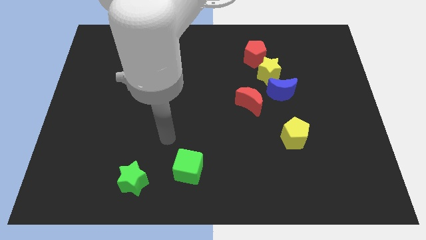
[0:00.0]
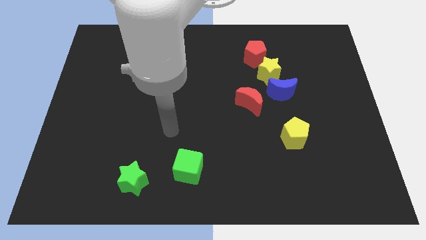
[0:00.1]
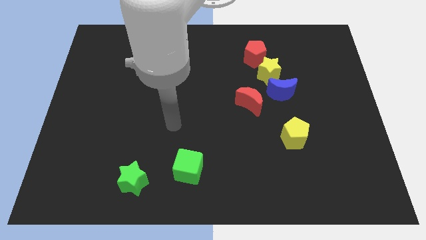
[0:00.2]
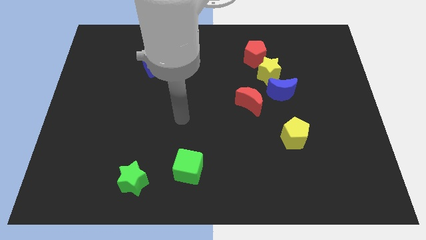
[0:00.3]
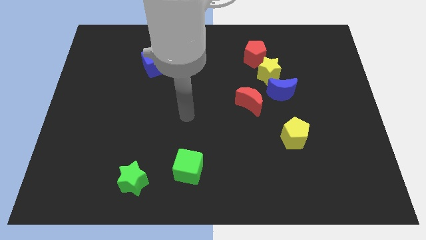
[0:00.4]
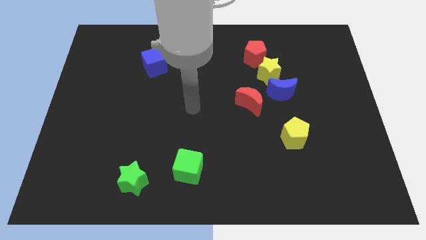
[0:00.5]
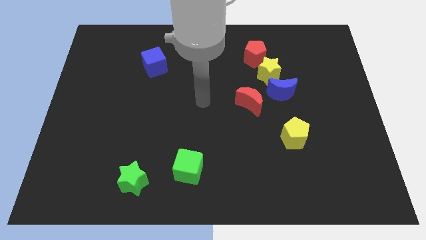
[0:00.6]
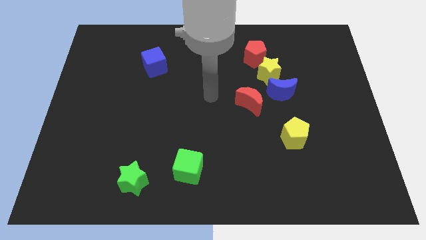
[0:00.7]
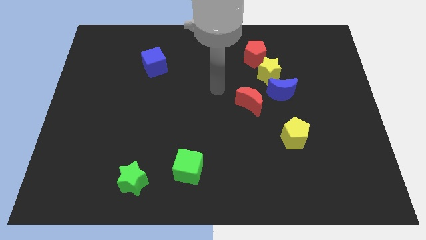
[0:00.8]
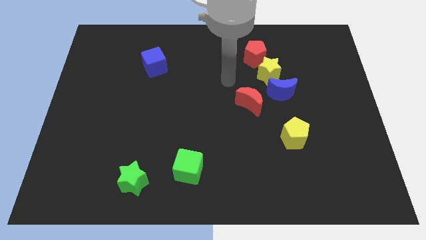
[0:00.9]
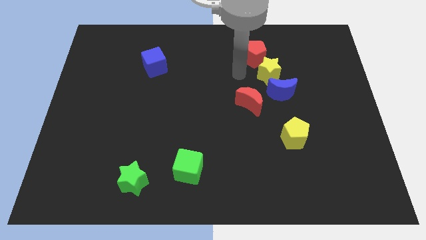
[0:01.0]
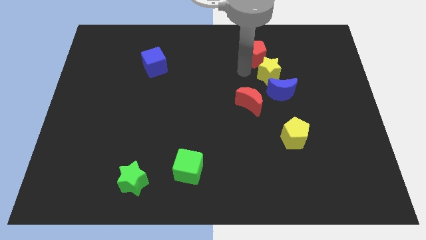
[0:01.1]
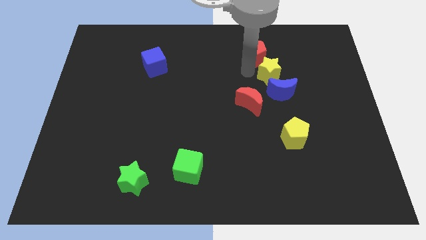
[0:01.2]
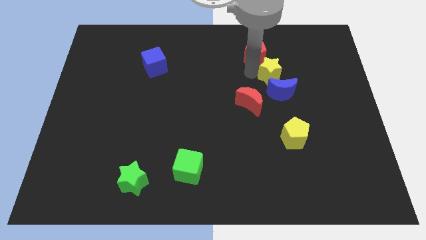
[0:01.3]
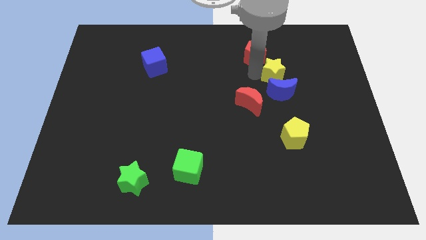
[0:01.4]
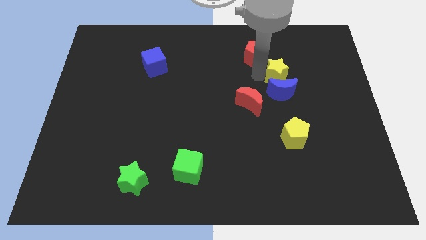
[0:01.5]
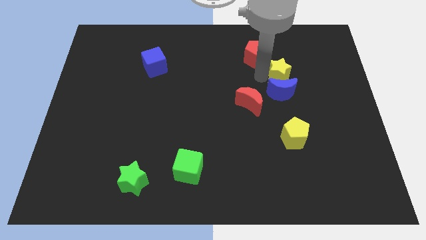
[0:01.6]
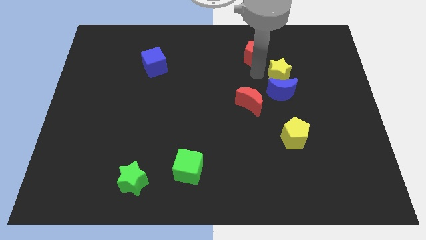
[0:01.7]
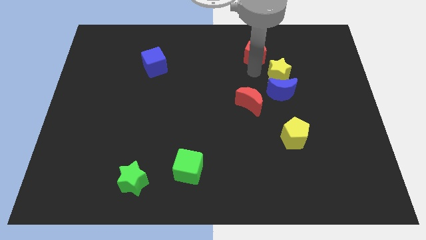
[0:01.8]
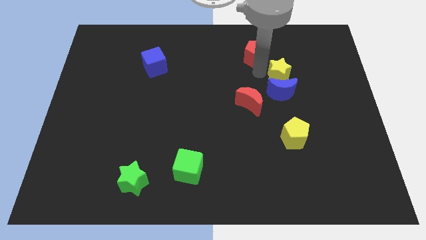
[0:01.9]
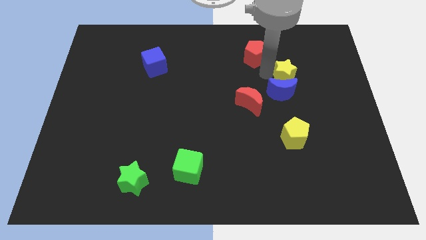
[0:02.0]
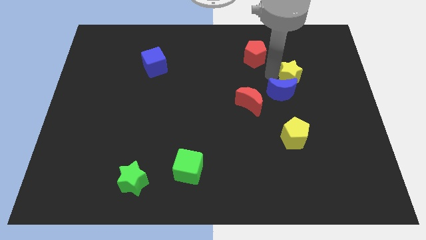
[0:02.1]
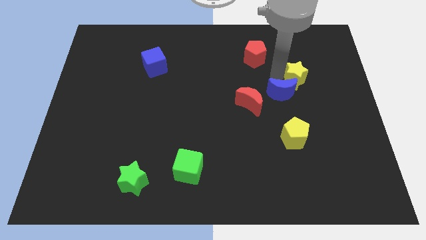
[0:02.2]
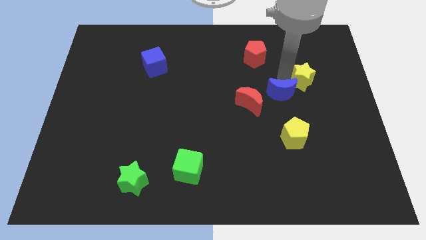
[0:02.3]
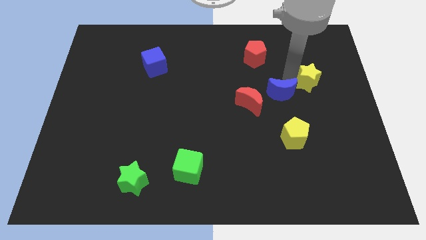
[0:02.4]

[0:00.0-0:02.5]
move the yellow star away from the blue moon and red pentagon

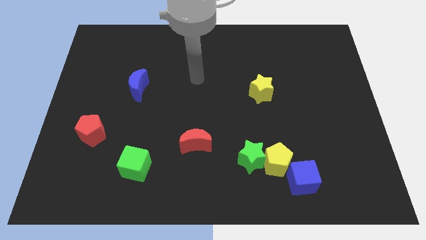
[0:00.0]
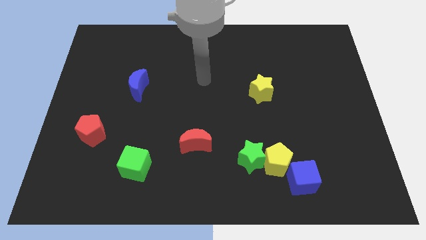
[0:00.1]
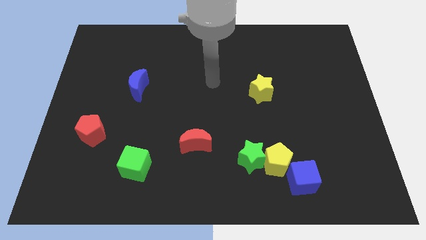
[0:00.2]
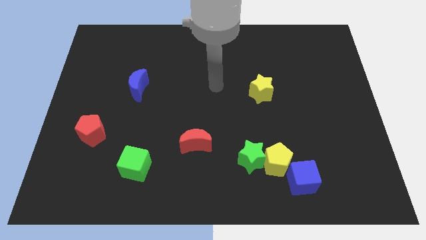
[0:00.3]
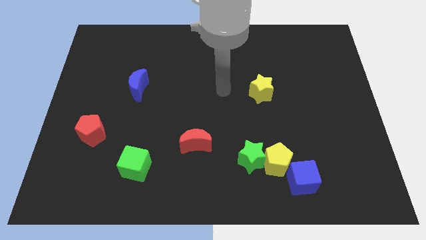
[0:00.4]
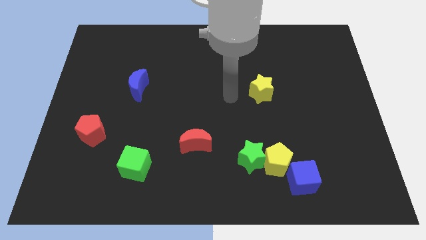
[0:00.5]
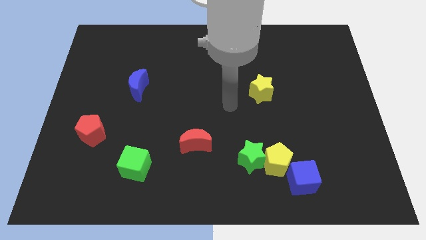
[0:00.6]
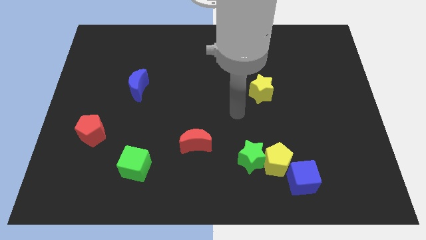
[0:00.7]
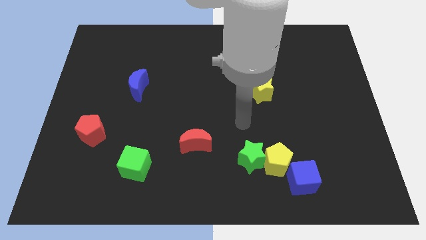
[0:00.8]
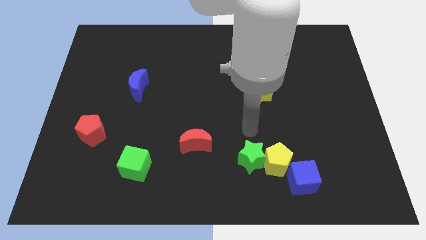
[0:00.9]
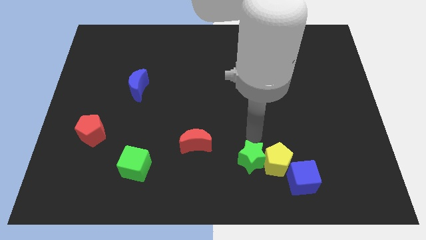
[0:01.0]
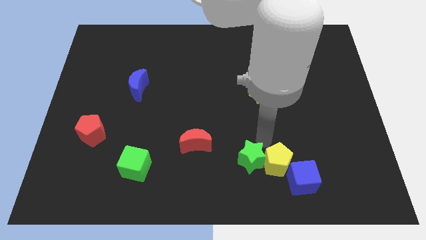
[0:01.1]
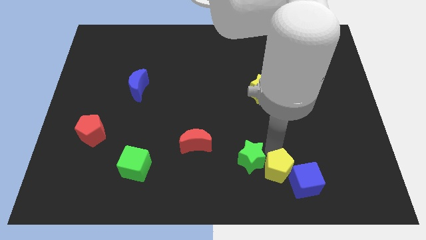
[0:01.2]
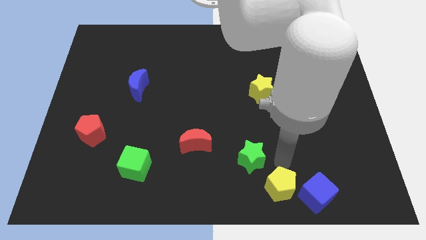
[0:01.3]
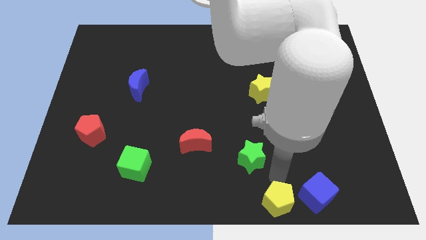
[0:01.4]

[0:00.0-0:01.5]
pull the green star apart from the yellow pentagon

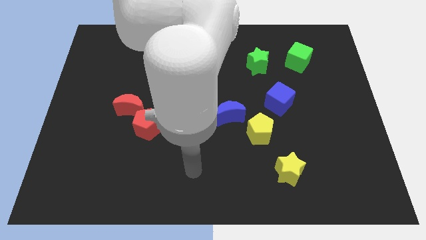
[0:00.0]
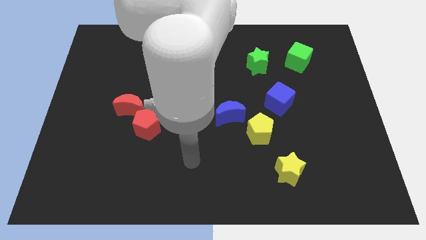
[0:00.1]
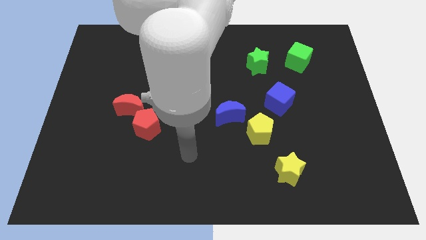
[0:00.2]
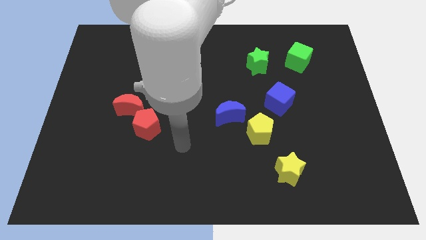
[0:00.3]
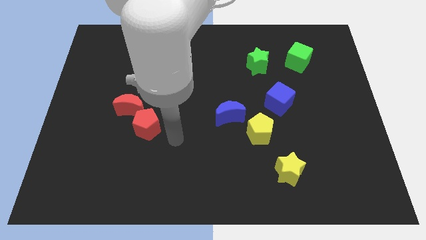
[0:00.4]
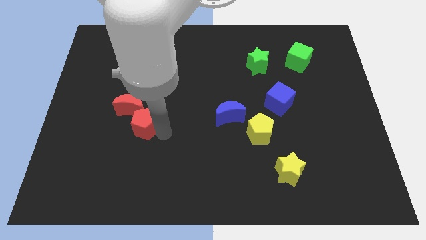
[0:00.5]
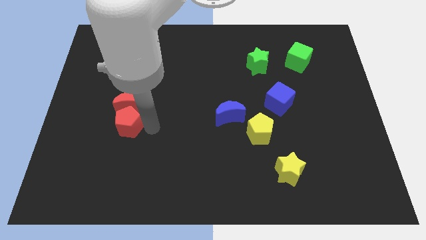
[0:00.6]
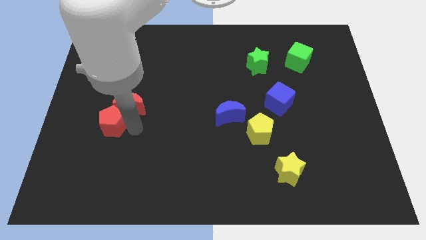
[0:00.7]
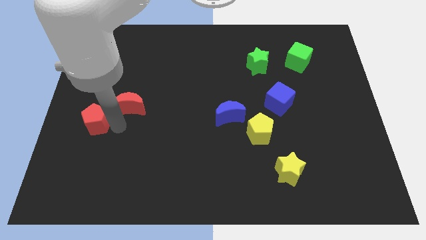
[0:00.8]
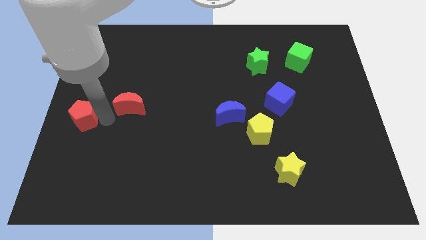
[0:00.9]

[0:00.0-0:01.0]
move the red moon away from the red pentagon

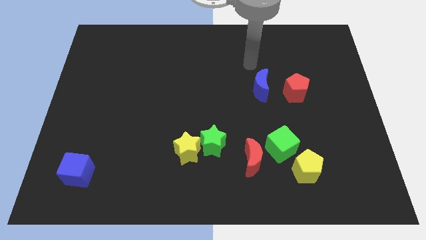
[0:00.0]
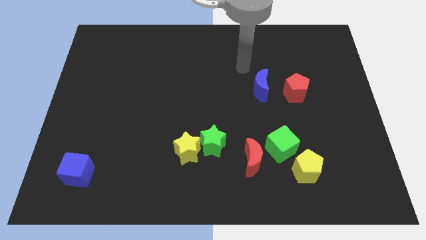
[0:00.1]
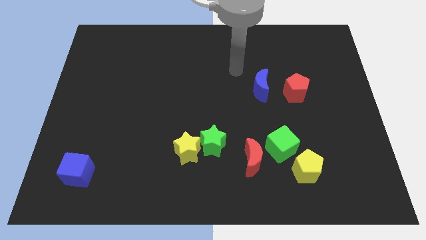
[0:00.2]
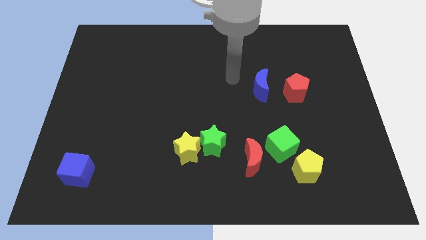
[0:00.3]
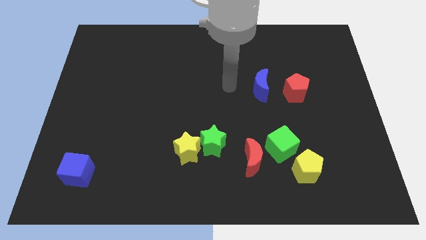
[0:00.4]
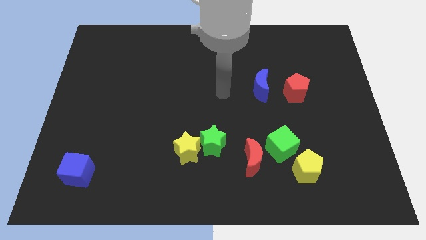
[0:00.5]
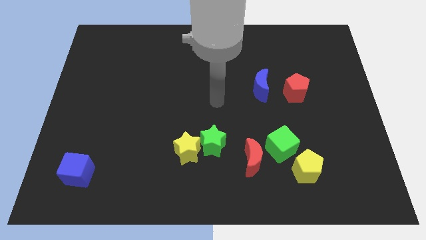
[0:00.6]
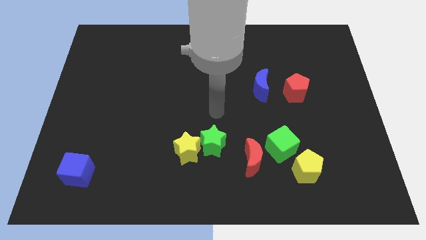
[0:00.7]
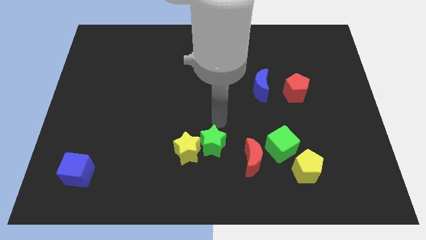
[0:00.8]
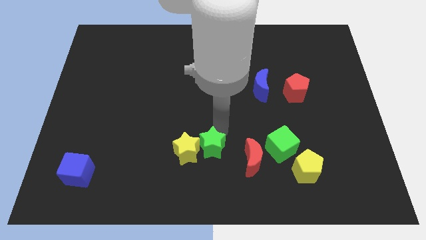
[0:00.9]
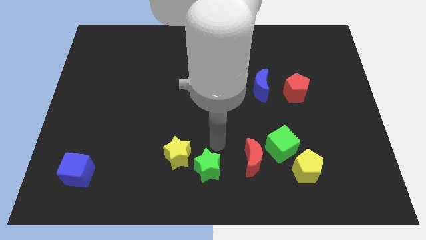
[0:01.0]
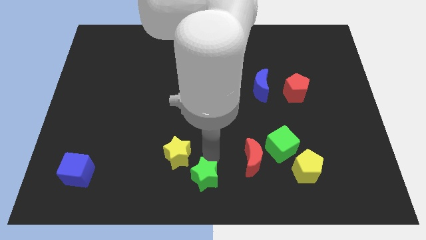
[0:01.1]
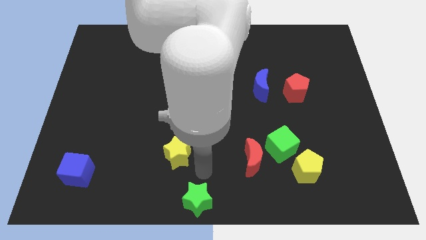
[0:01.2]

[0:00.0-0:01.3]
pull the yellow star apart from the green star

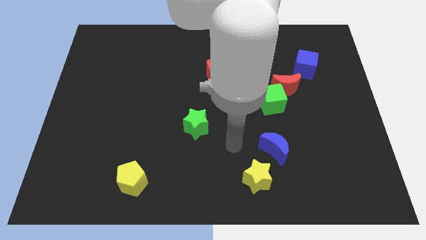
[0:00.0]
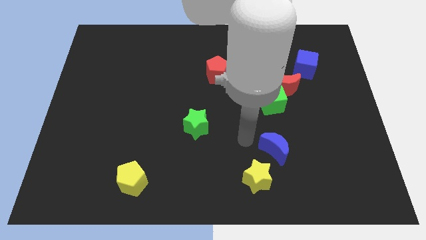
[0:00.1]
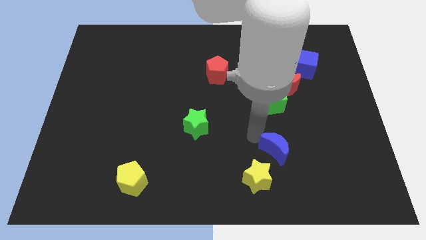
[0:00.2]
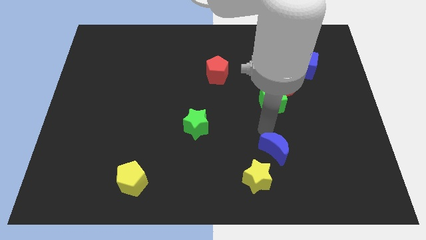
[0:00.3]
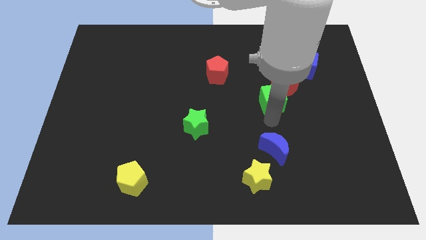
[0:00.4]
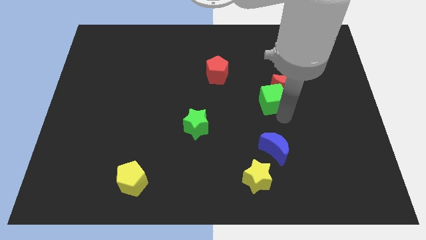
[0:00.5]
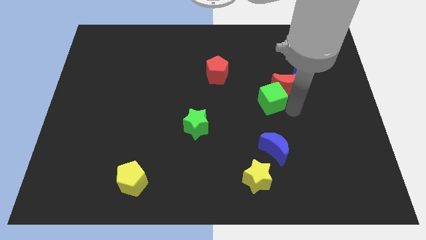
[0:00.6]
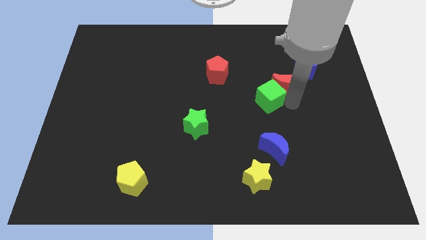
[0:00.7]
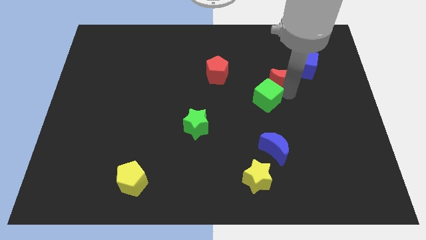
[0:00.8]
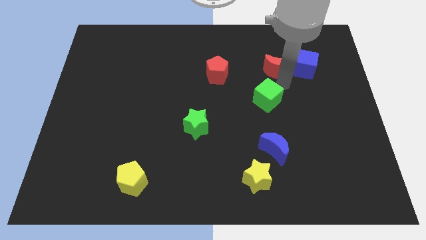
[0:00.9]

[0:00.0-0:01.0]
move the green cube away from the red moon

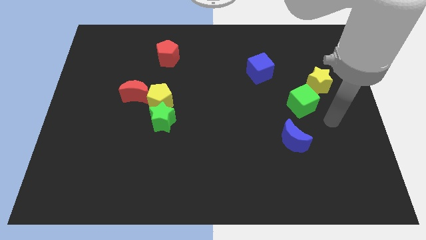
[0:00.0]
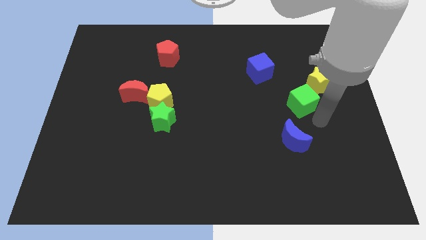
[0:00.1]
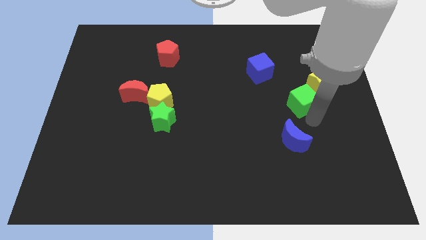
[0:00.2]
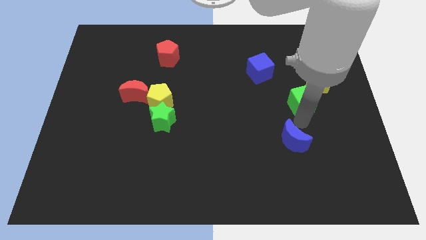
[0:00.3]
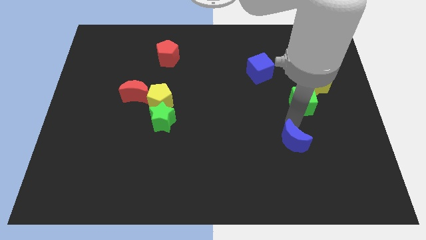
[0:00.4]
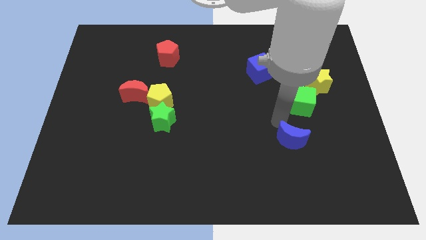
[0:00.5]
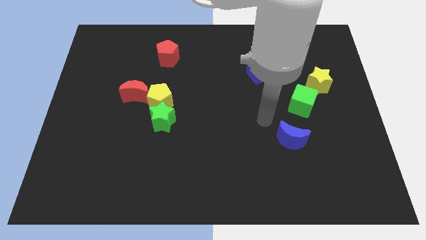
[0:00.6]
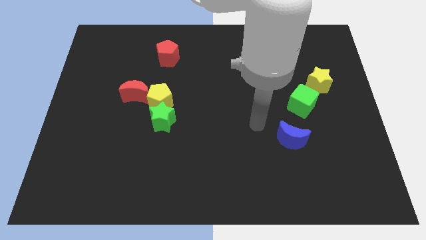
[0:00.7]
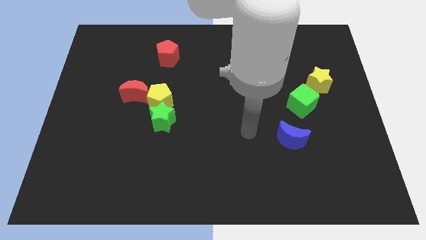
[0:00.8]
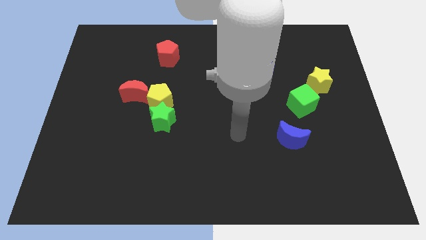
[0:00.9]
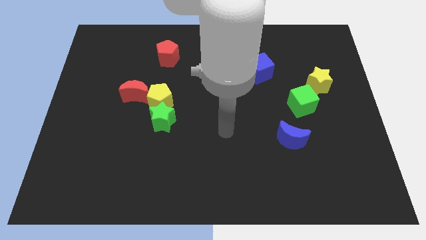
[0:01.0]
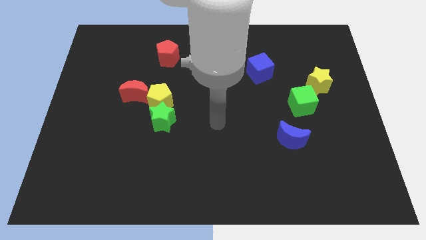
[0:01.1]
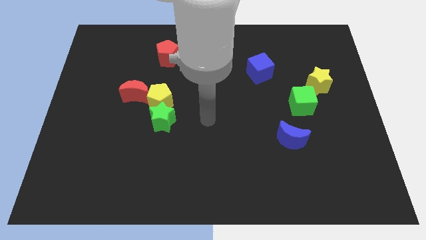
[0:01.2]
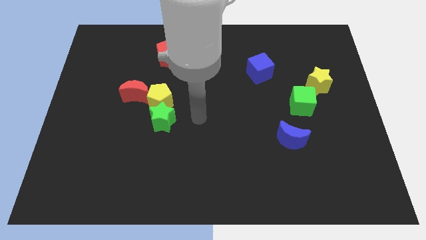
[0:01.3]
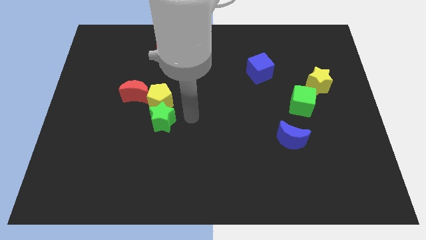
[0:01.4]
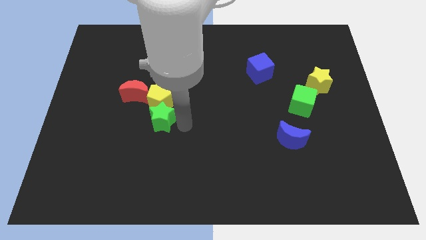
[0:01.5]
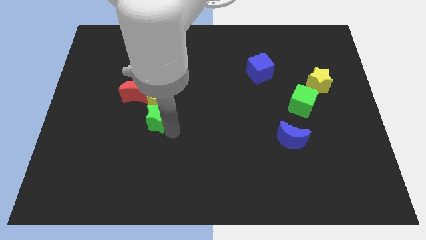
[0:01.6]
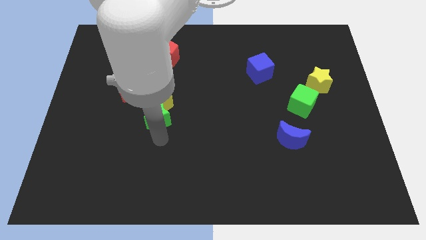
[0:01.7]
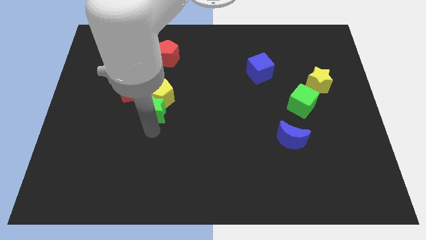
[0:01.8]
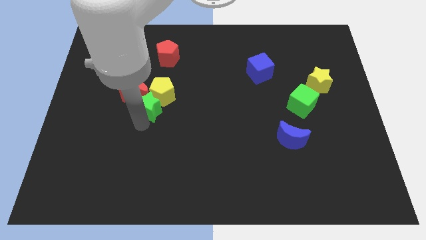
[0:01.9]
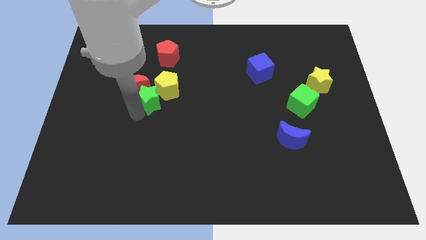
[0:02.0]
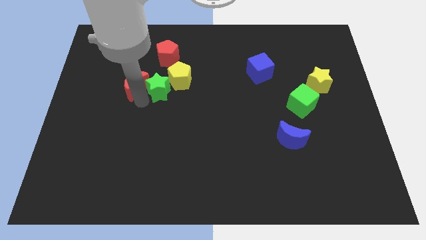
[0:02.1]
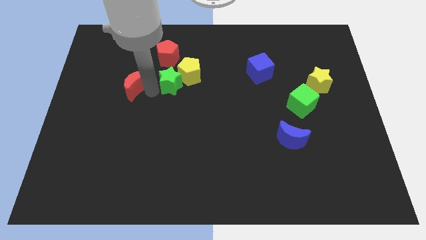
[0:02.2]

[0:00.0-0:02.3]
move the yellow pentagon away from the green star and red moon
